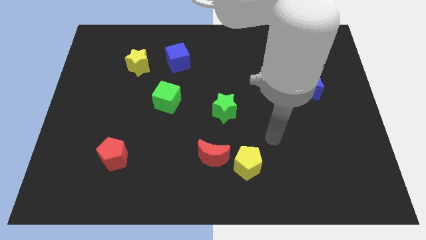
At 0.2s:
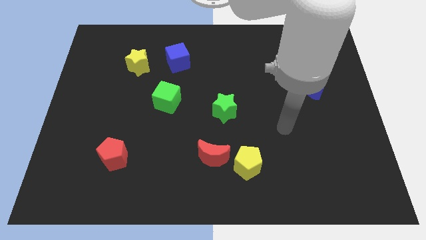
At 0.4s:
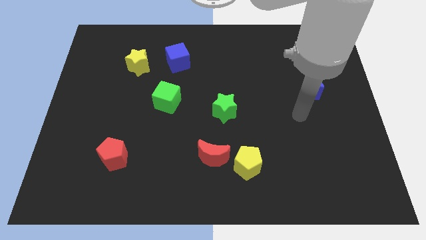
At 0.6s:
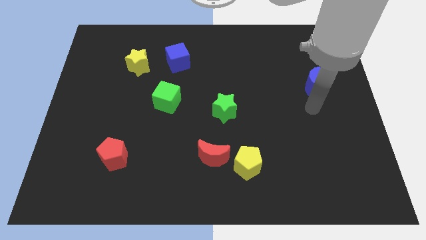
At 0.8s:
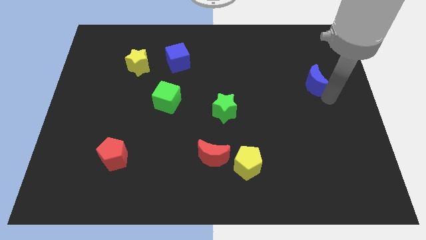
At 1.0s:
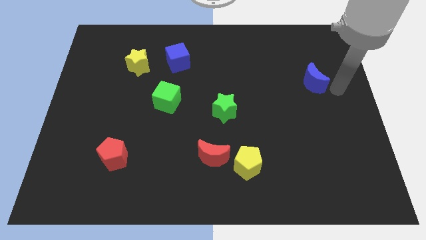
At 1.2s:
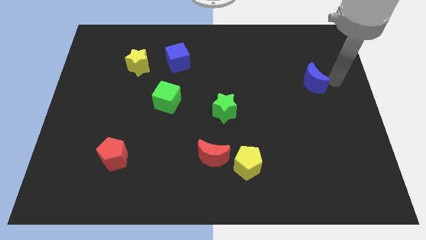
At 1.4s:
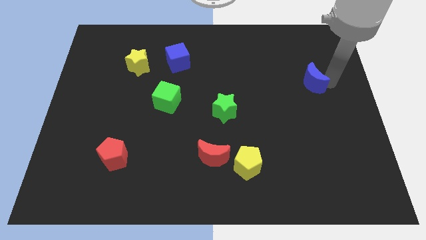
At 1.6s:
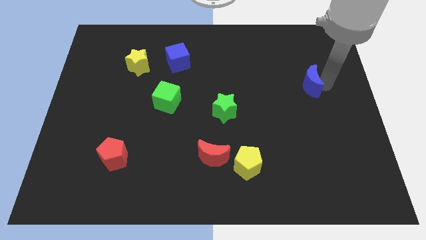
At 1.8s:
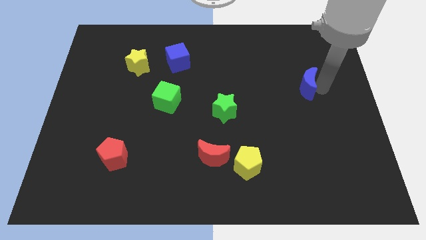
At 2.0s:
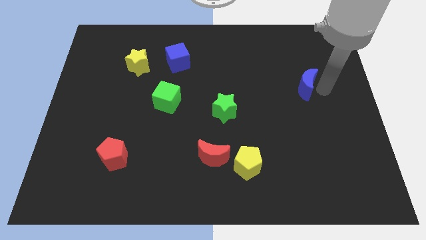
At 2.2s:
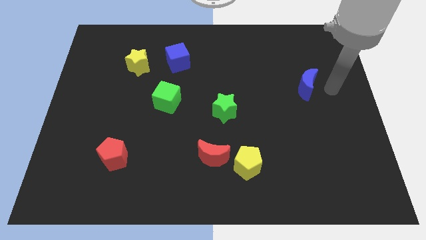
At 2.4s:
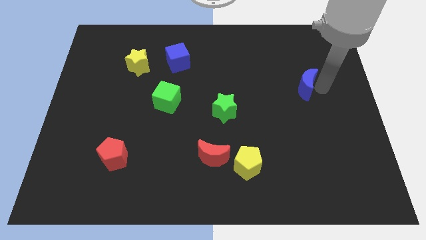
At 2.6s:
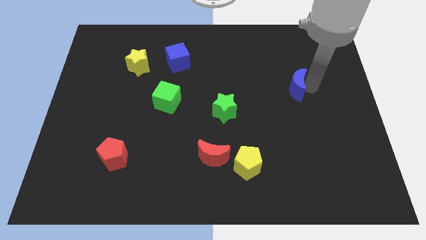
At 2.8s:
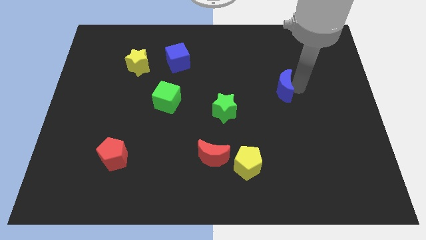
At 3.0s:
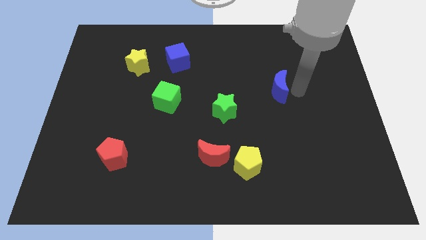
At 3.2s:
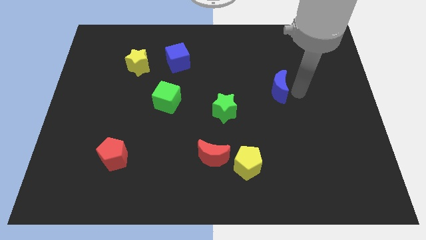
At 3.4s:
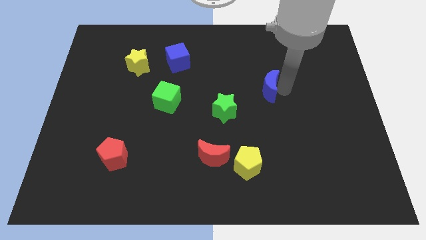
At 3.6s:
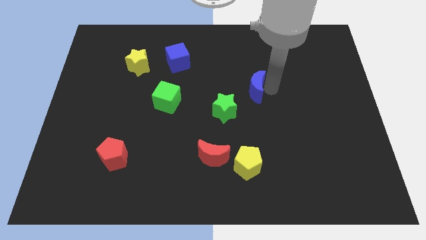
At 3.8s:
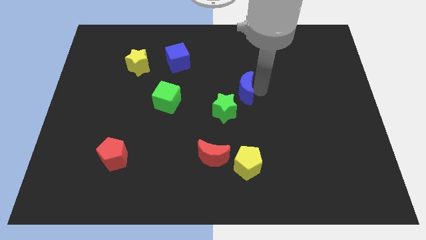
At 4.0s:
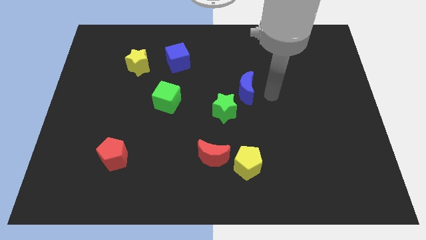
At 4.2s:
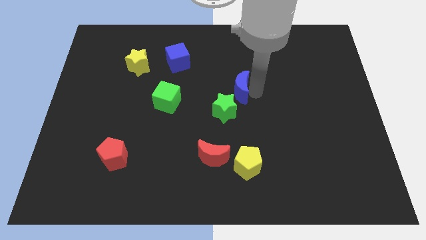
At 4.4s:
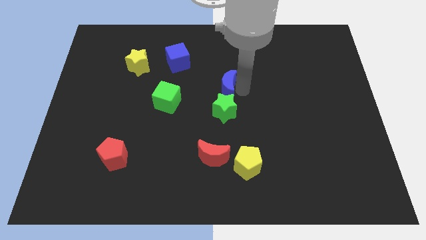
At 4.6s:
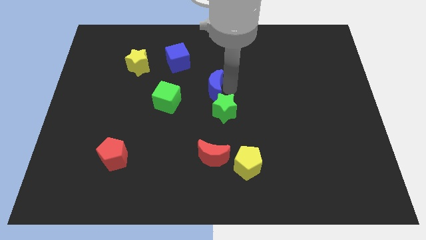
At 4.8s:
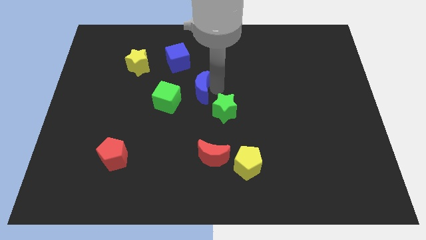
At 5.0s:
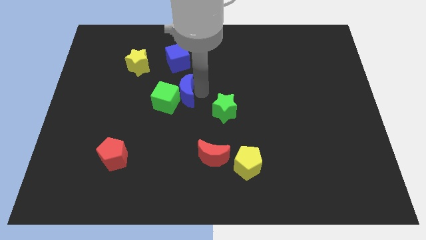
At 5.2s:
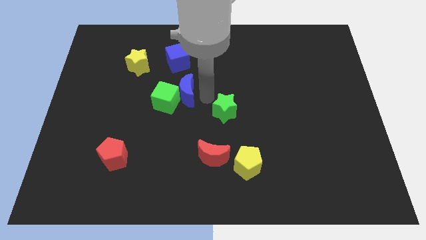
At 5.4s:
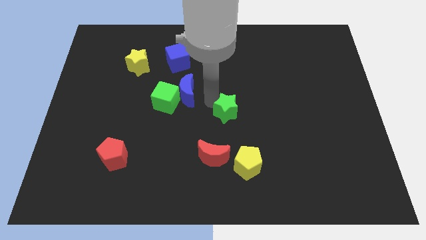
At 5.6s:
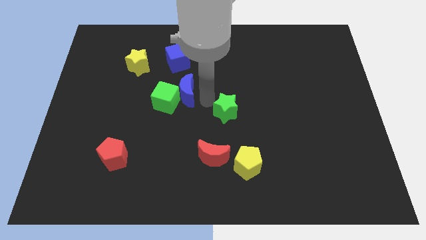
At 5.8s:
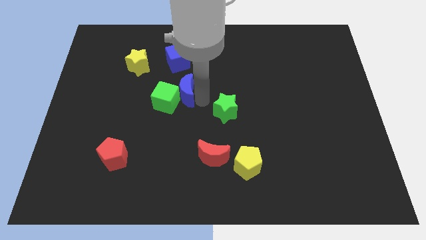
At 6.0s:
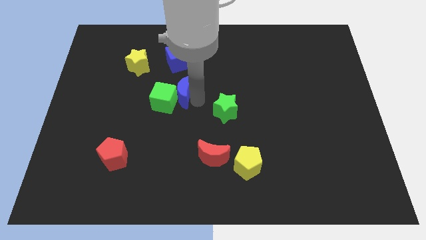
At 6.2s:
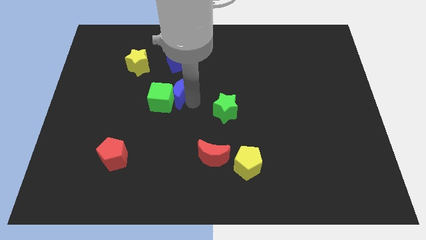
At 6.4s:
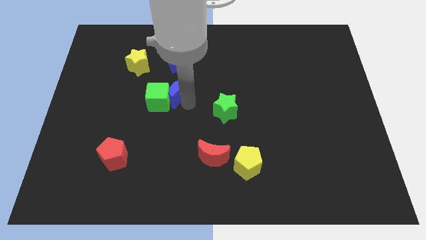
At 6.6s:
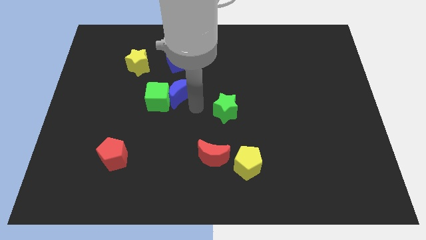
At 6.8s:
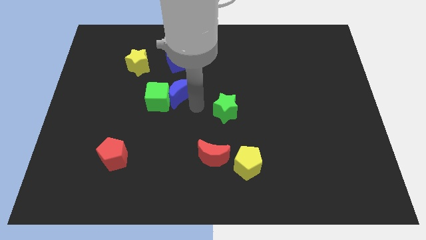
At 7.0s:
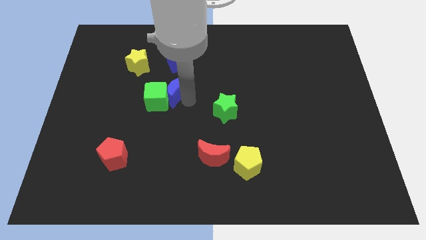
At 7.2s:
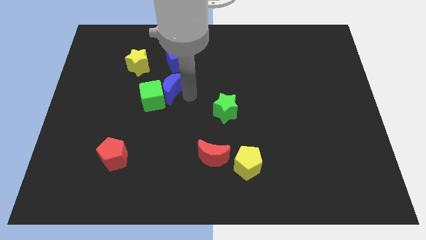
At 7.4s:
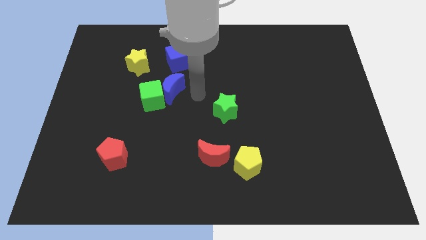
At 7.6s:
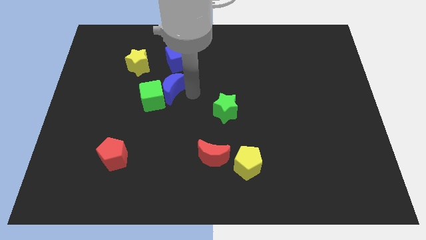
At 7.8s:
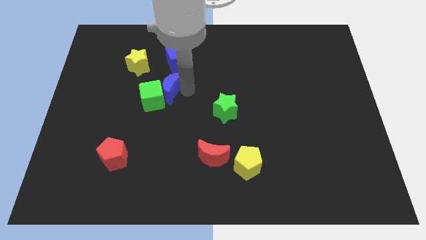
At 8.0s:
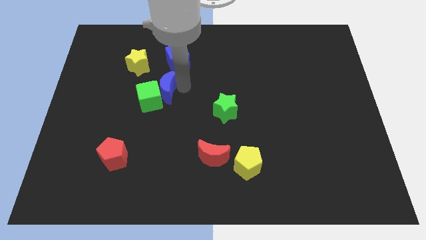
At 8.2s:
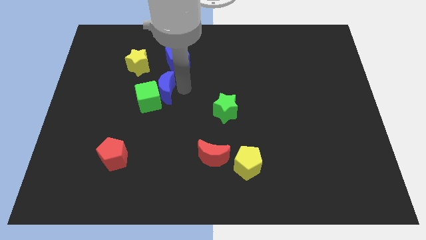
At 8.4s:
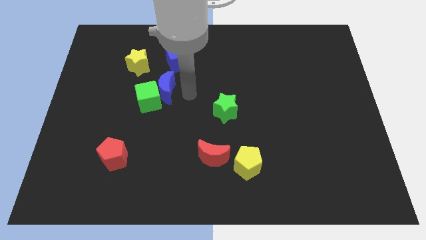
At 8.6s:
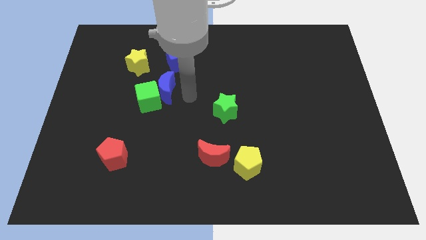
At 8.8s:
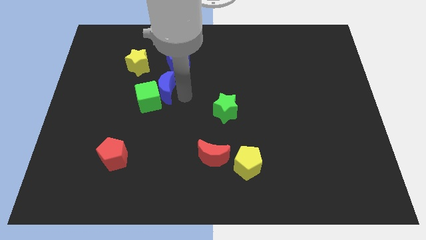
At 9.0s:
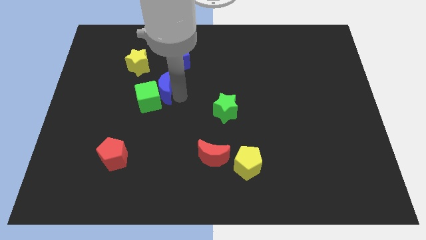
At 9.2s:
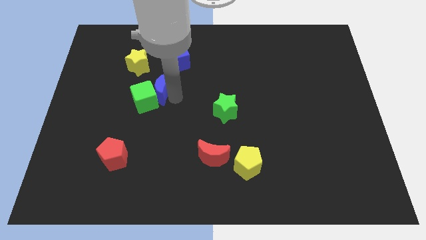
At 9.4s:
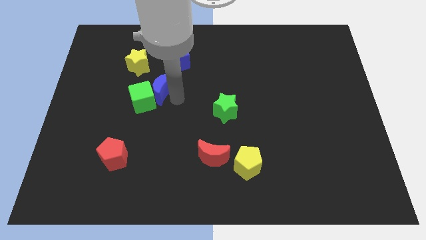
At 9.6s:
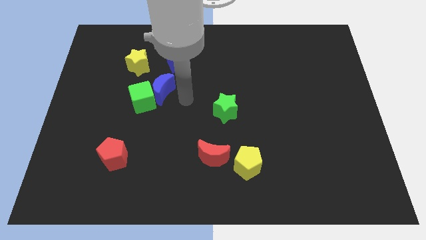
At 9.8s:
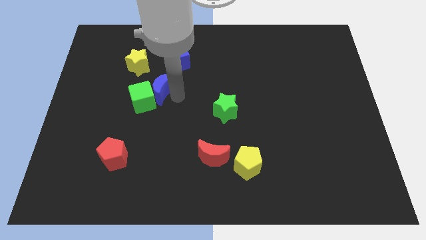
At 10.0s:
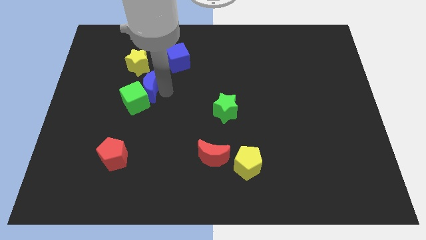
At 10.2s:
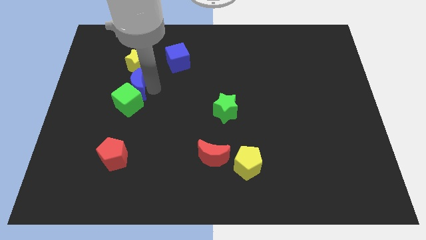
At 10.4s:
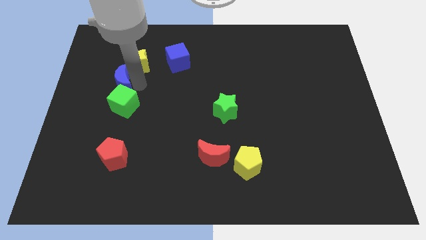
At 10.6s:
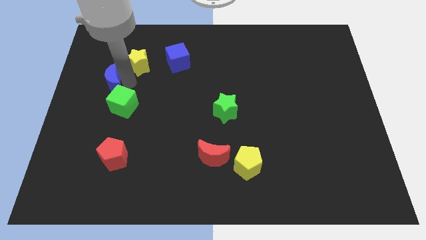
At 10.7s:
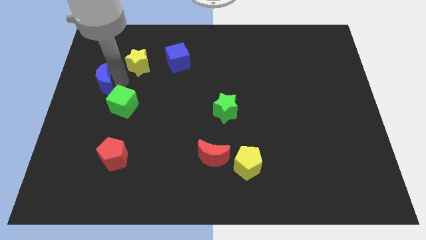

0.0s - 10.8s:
push the blue moon to the left side
